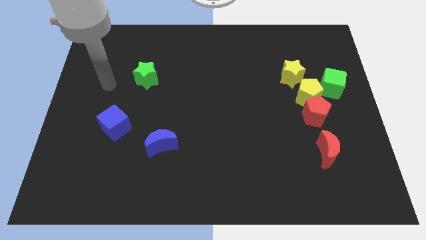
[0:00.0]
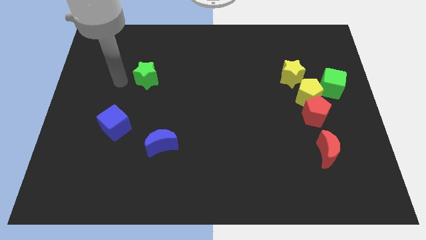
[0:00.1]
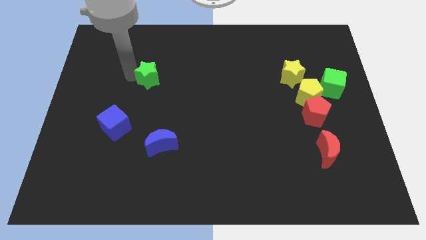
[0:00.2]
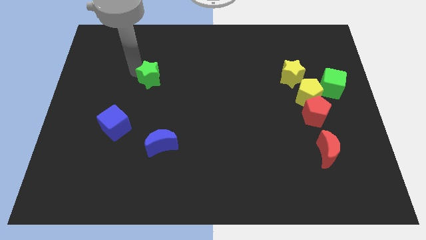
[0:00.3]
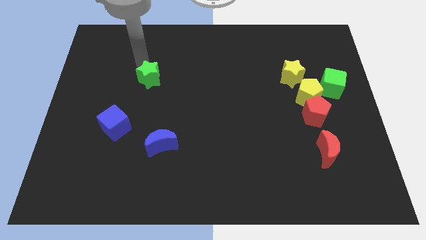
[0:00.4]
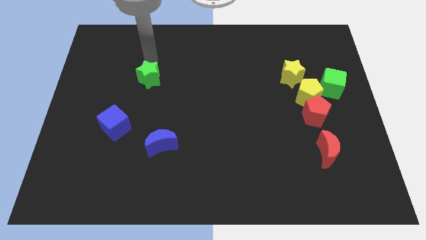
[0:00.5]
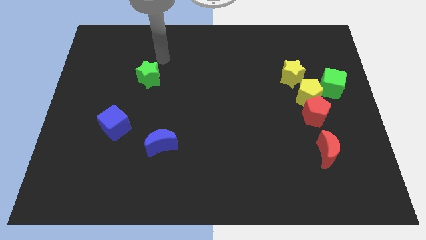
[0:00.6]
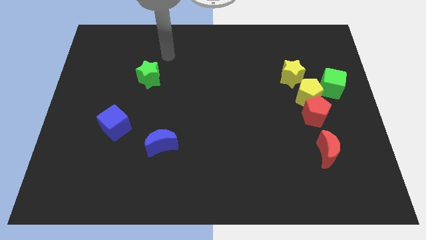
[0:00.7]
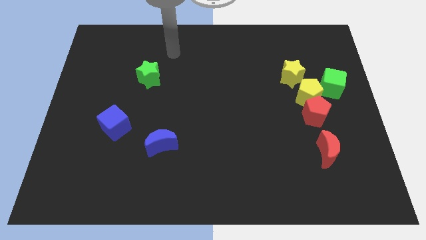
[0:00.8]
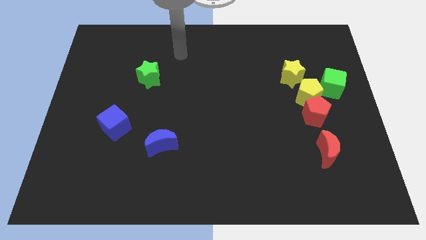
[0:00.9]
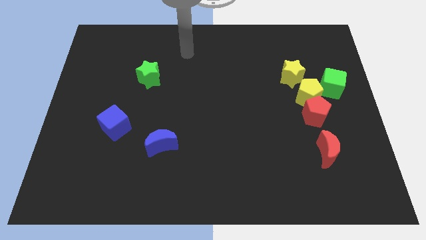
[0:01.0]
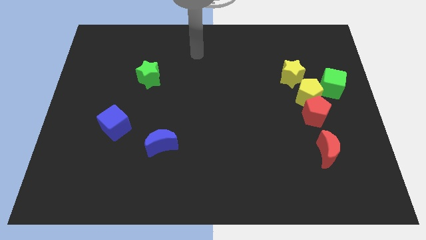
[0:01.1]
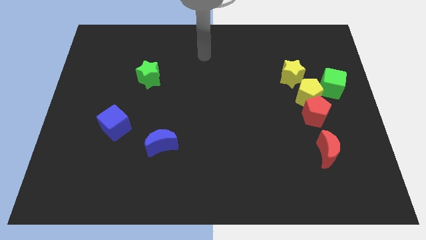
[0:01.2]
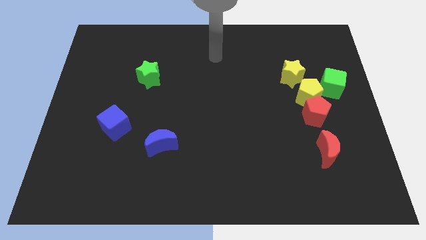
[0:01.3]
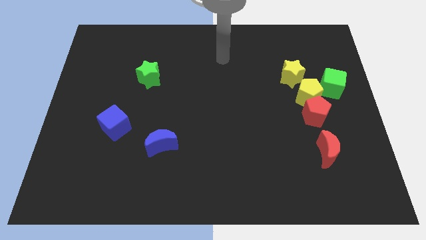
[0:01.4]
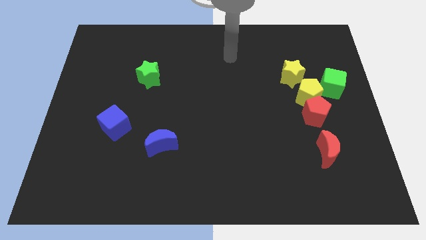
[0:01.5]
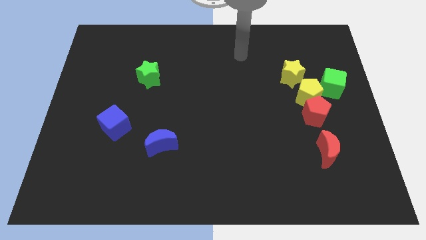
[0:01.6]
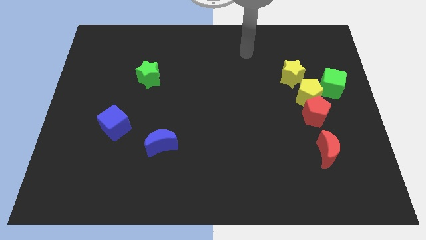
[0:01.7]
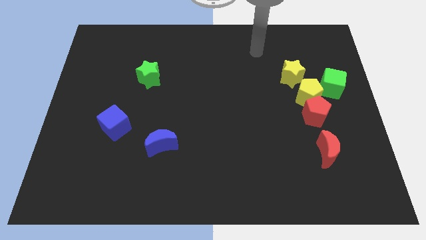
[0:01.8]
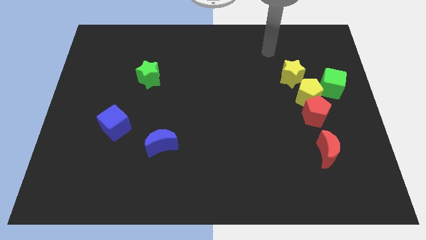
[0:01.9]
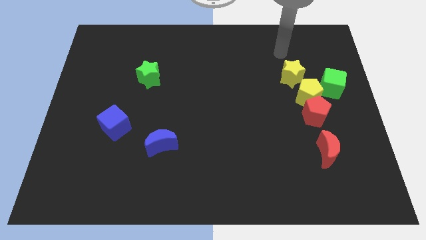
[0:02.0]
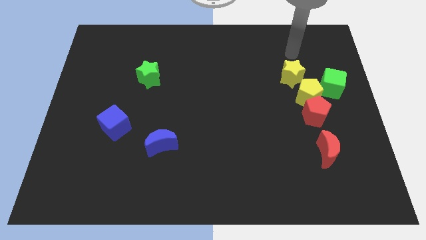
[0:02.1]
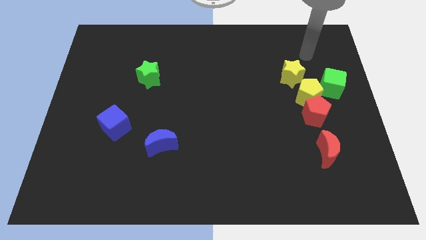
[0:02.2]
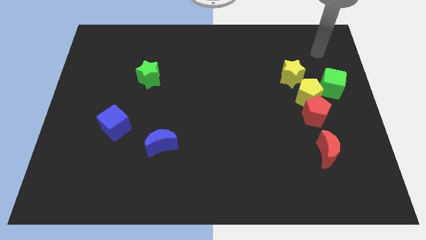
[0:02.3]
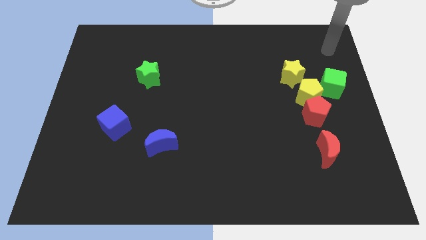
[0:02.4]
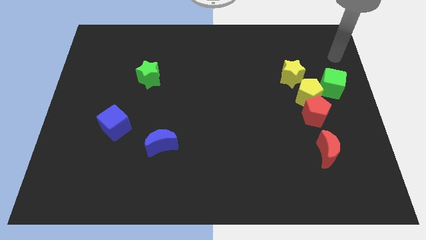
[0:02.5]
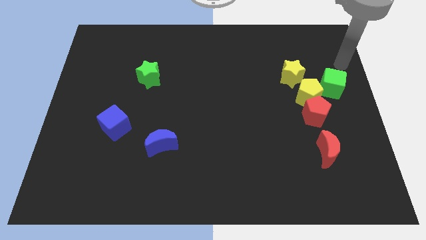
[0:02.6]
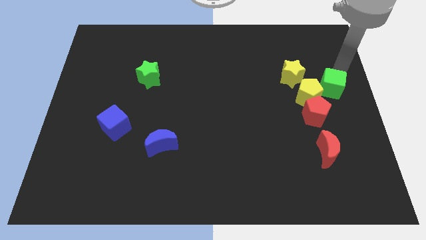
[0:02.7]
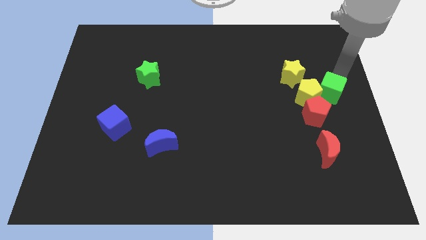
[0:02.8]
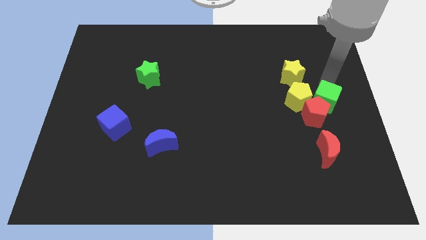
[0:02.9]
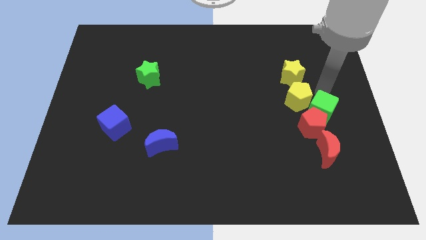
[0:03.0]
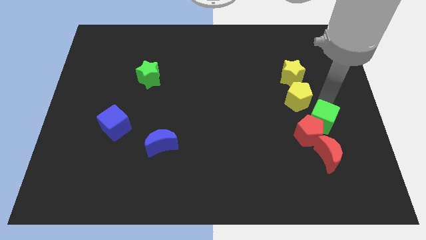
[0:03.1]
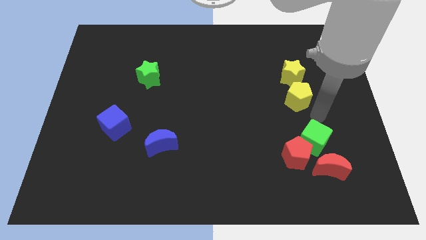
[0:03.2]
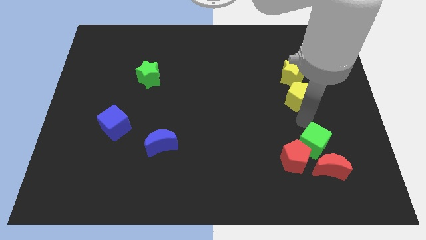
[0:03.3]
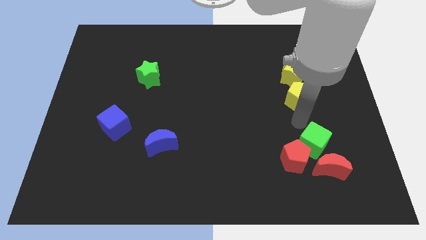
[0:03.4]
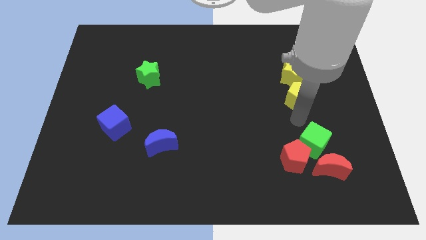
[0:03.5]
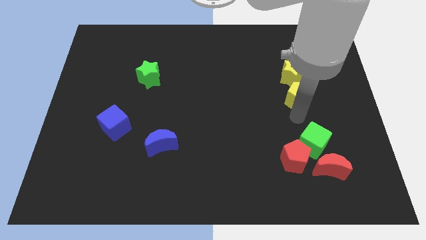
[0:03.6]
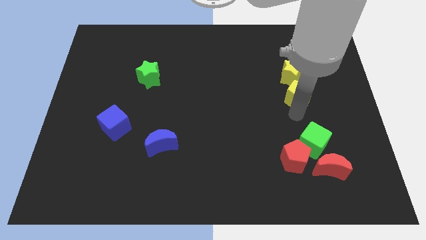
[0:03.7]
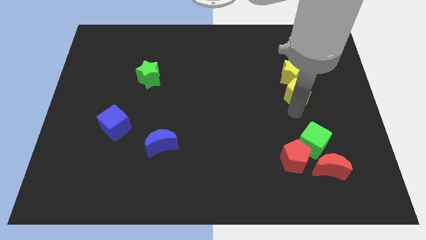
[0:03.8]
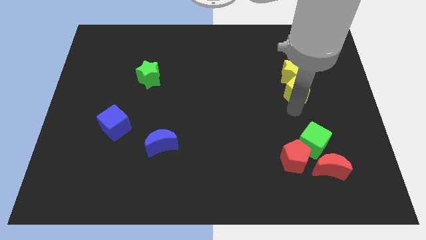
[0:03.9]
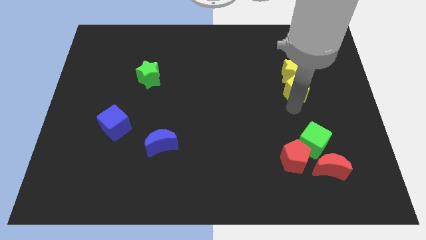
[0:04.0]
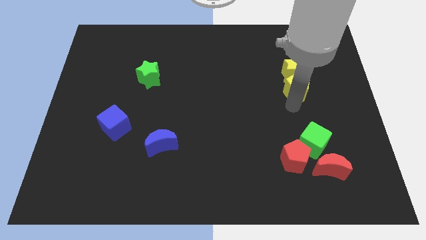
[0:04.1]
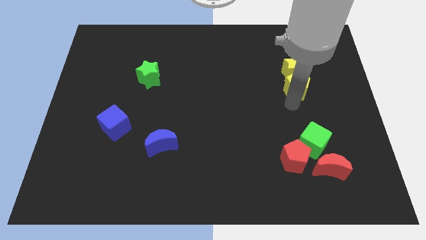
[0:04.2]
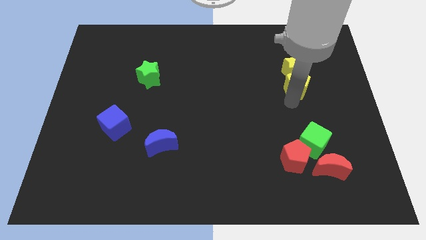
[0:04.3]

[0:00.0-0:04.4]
pull the yellow pentagon apart from the group

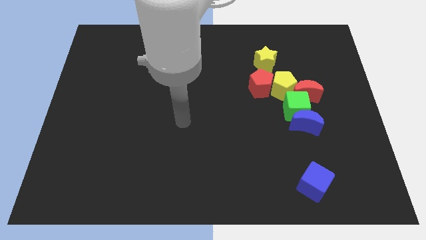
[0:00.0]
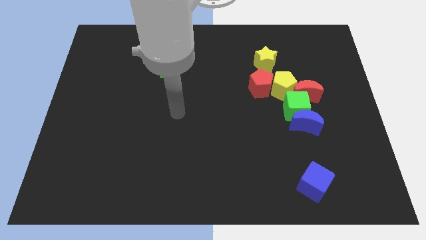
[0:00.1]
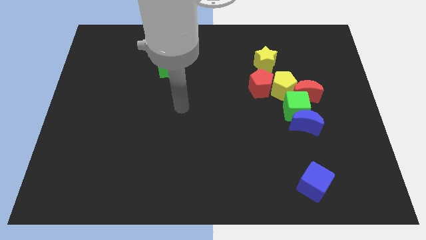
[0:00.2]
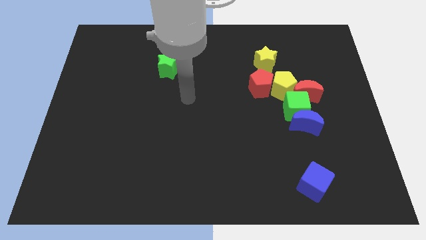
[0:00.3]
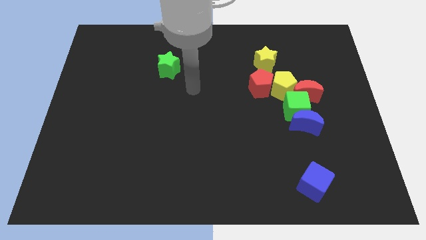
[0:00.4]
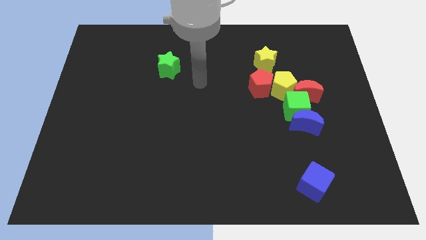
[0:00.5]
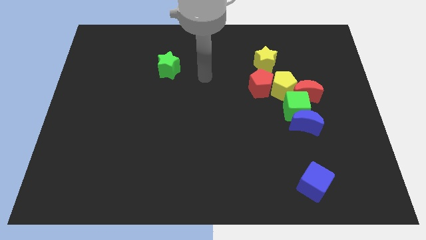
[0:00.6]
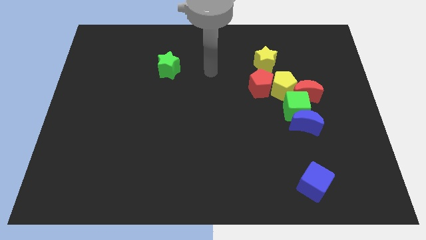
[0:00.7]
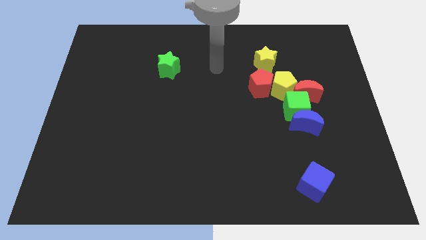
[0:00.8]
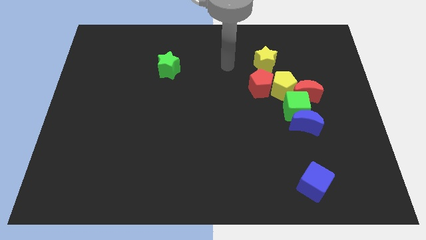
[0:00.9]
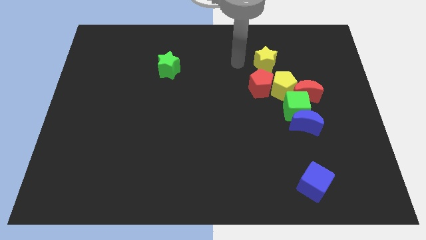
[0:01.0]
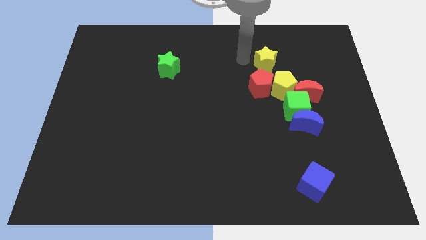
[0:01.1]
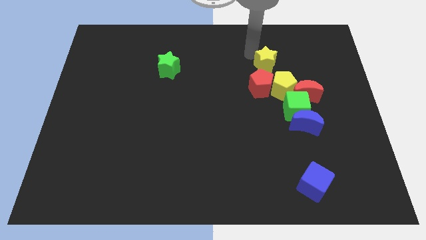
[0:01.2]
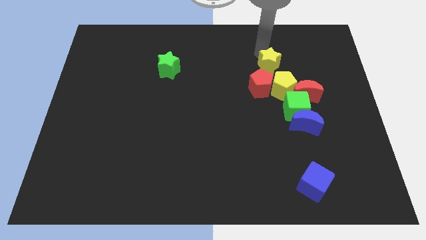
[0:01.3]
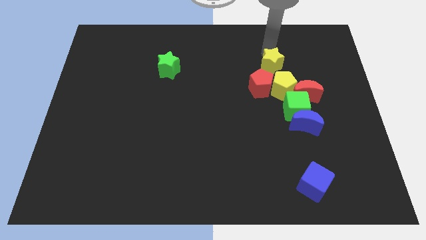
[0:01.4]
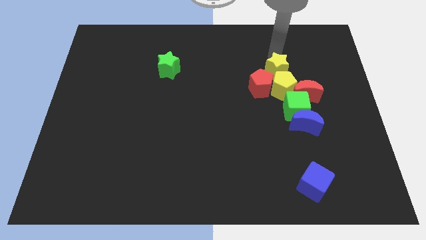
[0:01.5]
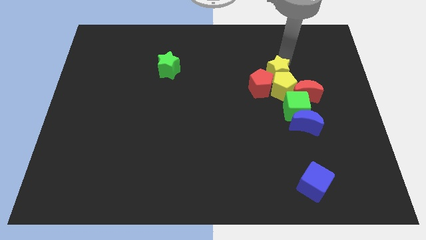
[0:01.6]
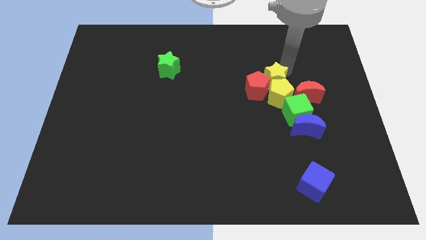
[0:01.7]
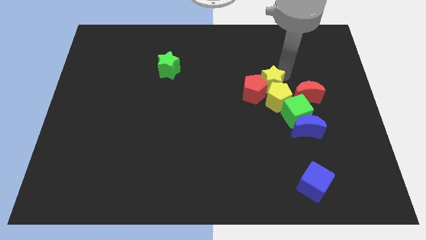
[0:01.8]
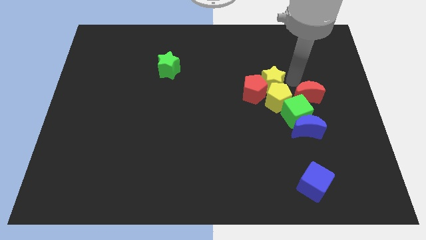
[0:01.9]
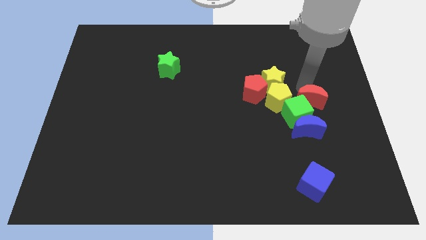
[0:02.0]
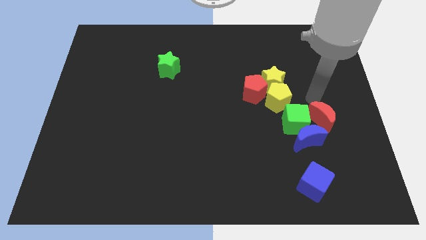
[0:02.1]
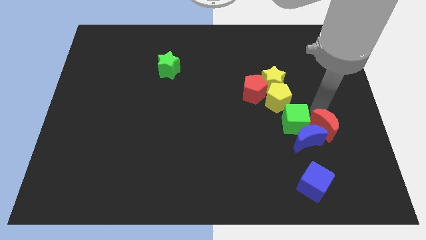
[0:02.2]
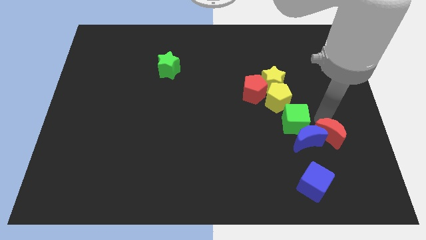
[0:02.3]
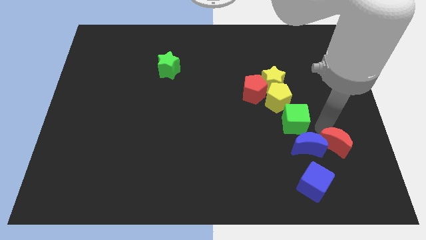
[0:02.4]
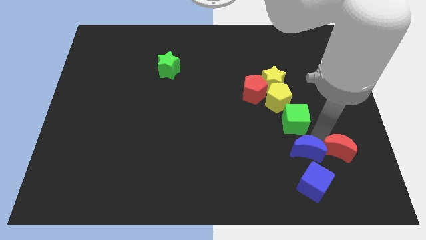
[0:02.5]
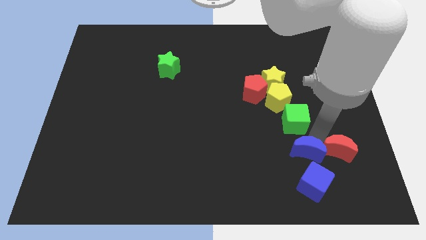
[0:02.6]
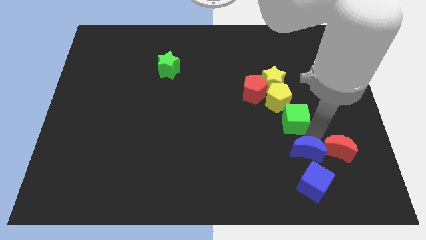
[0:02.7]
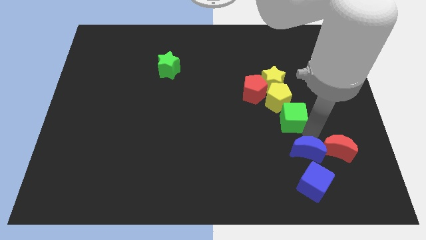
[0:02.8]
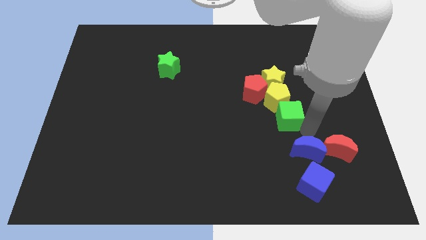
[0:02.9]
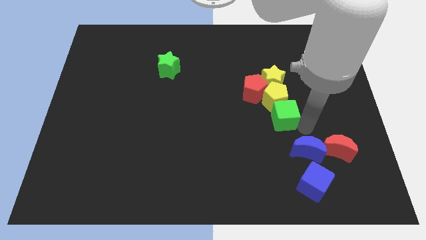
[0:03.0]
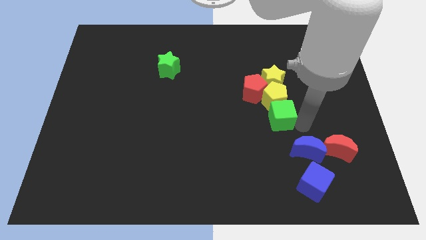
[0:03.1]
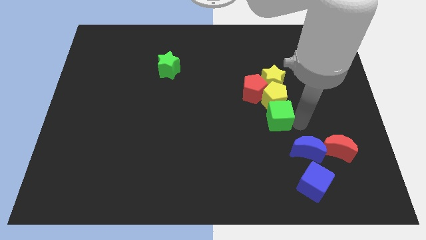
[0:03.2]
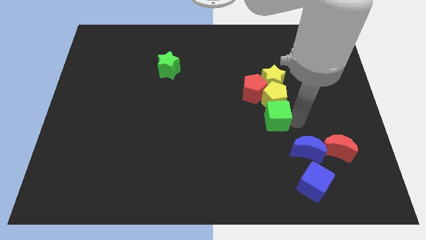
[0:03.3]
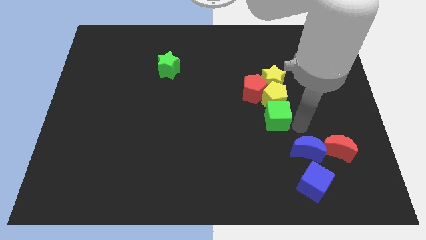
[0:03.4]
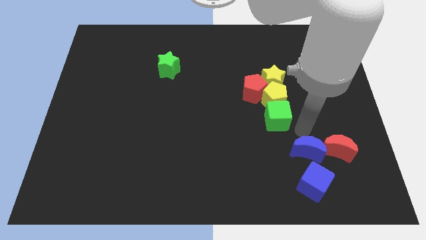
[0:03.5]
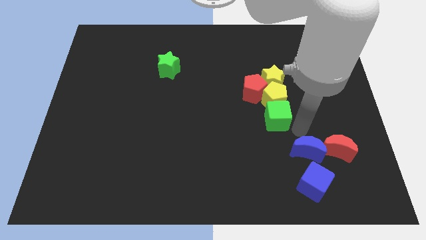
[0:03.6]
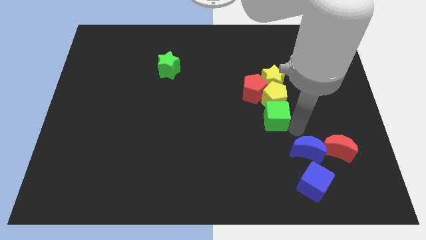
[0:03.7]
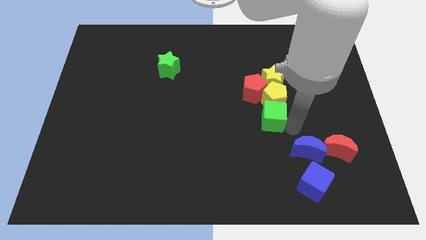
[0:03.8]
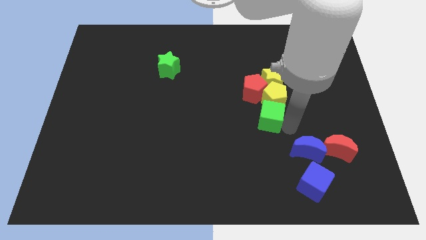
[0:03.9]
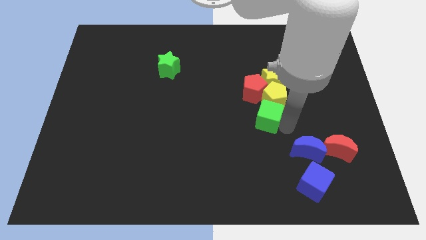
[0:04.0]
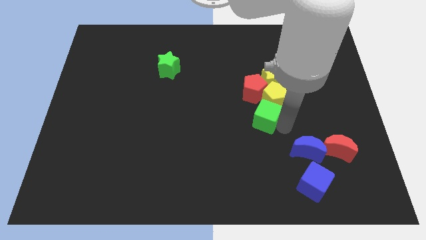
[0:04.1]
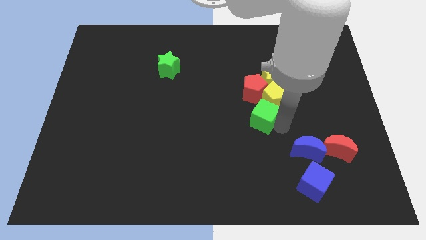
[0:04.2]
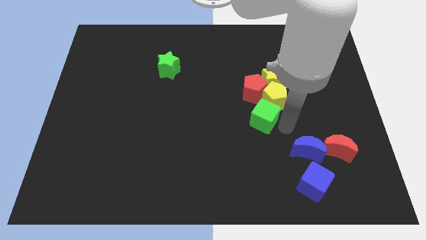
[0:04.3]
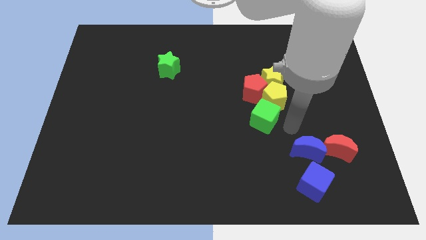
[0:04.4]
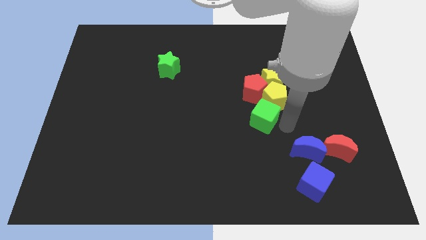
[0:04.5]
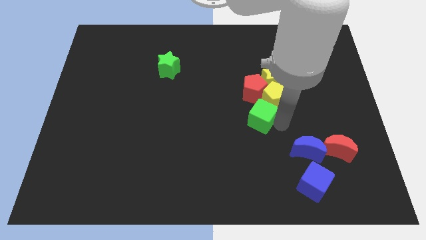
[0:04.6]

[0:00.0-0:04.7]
pull the green cube apart from the group

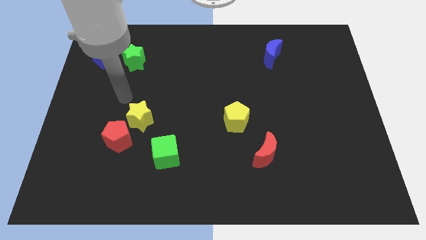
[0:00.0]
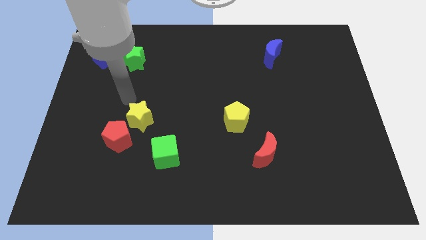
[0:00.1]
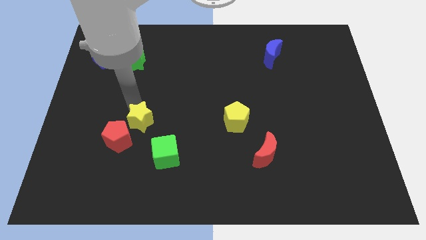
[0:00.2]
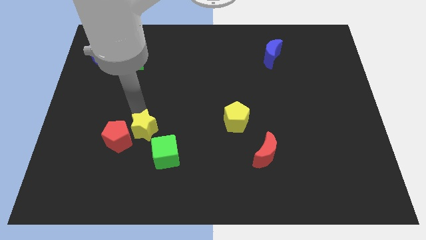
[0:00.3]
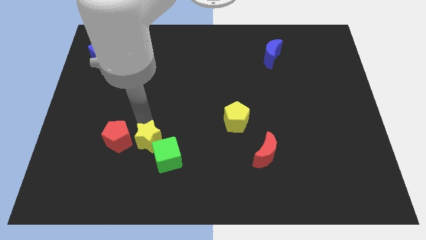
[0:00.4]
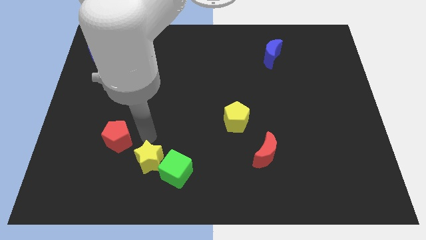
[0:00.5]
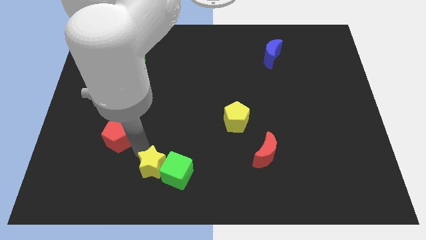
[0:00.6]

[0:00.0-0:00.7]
pull the red pentagon apart from the yellow star
